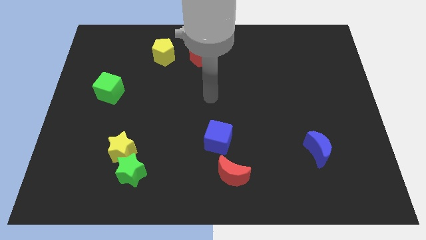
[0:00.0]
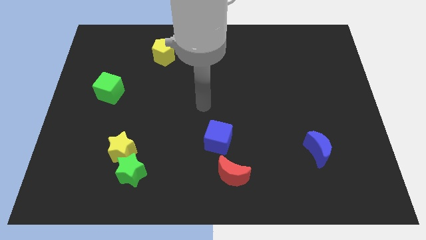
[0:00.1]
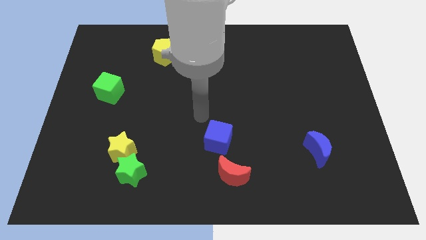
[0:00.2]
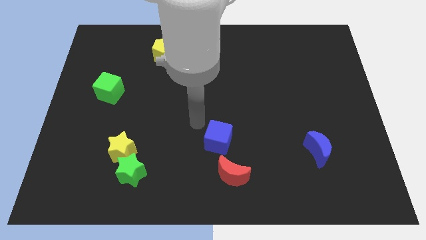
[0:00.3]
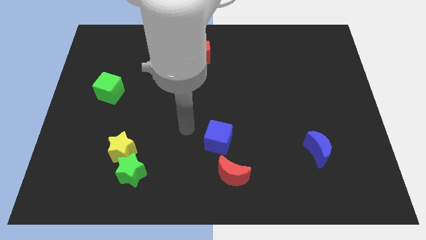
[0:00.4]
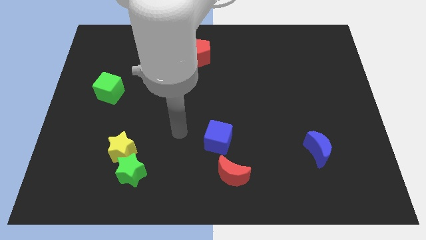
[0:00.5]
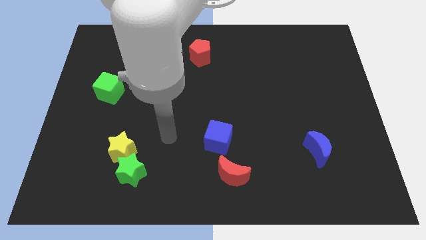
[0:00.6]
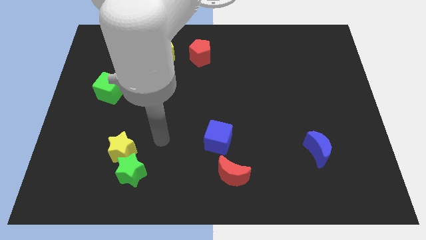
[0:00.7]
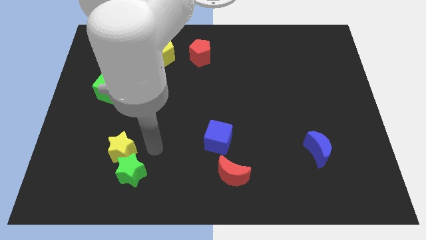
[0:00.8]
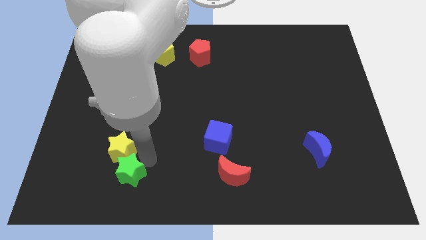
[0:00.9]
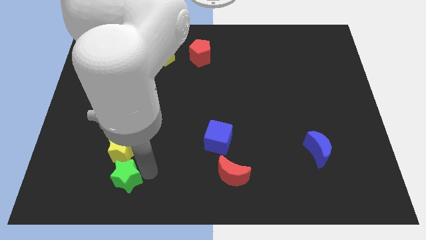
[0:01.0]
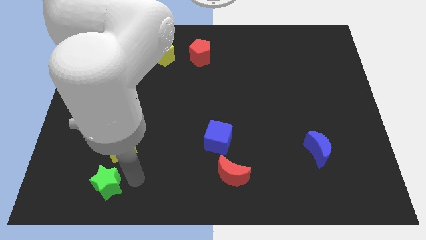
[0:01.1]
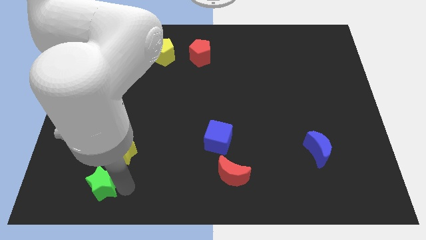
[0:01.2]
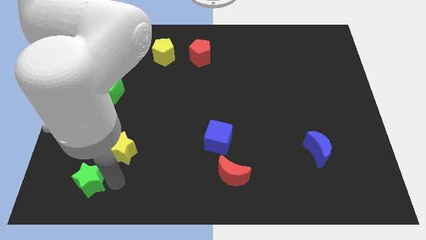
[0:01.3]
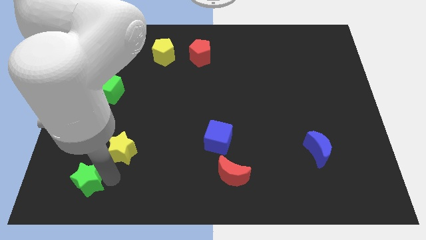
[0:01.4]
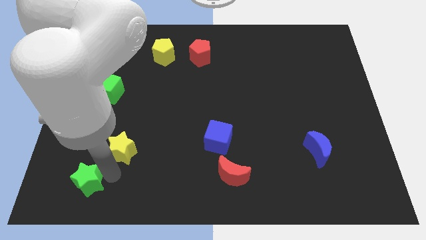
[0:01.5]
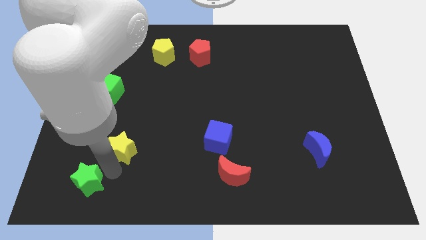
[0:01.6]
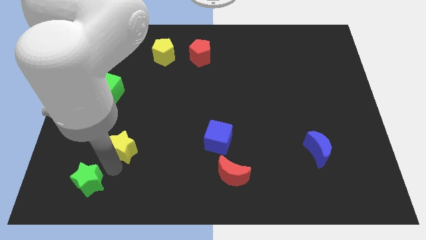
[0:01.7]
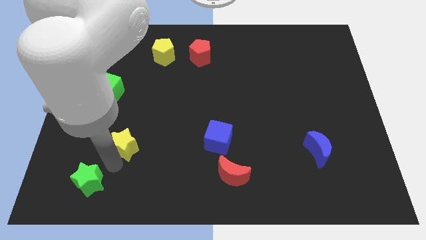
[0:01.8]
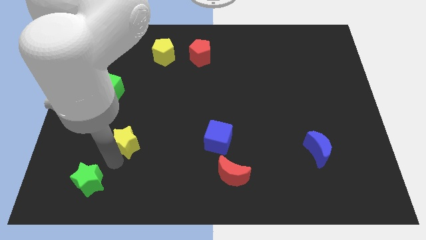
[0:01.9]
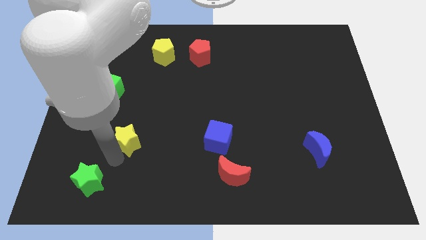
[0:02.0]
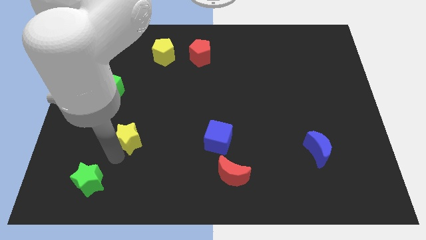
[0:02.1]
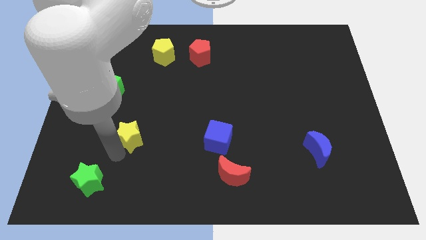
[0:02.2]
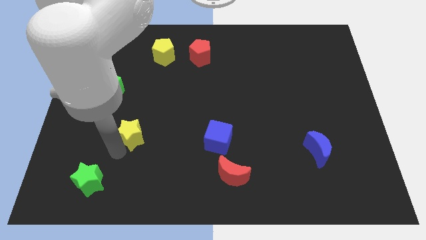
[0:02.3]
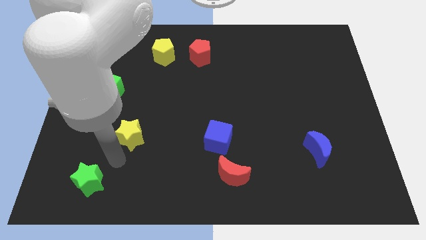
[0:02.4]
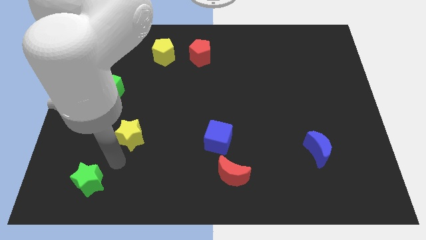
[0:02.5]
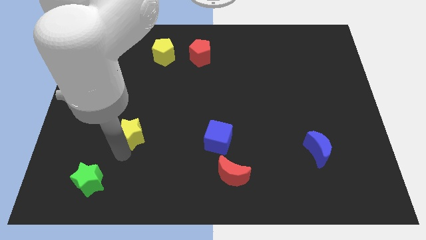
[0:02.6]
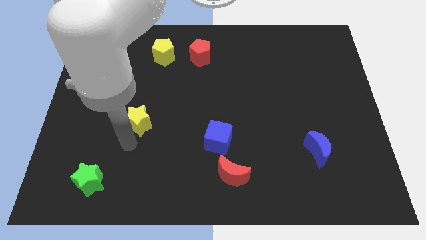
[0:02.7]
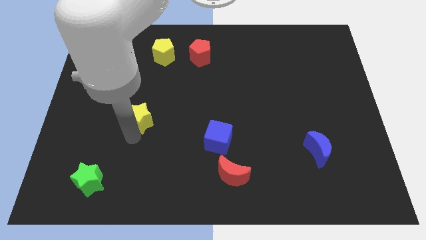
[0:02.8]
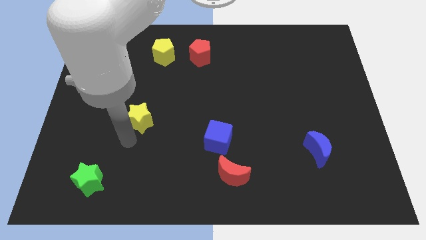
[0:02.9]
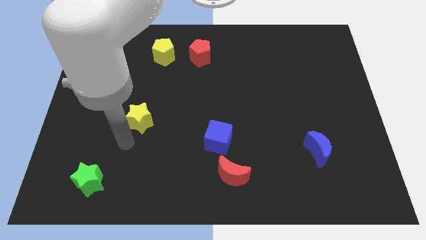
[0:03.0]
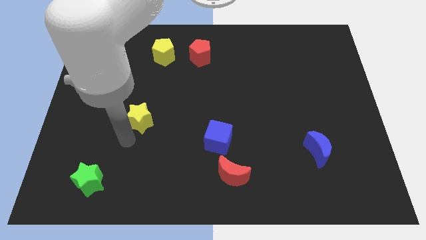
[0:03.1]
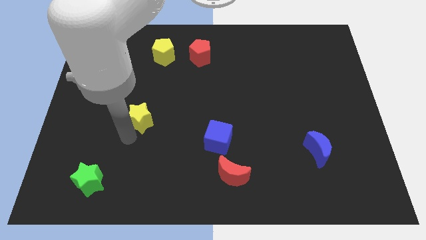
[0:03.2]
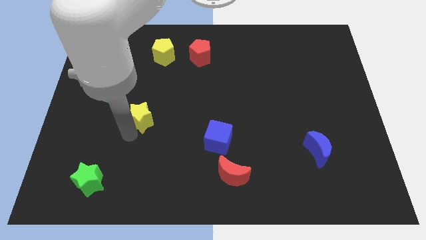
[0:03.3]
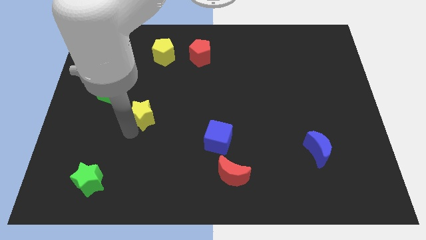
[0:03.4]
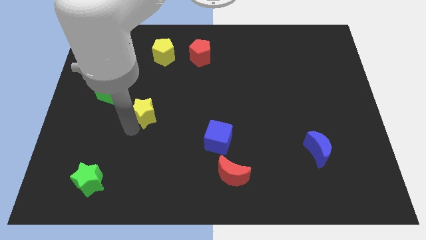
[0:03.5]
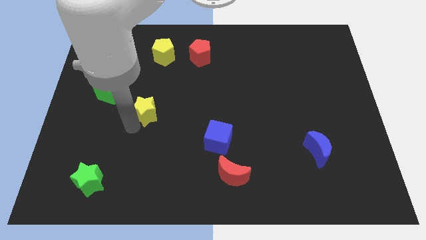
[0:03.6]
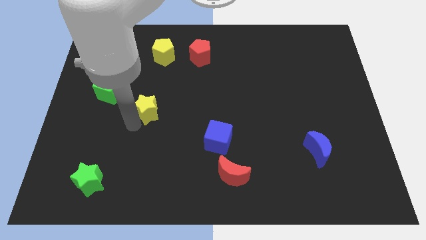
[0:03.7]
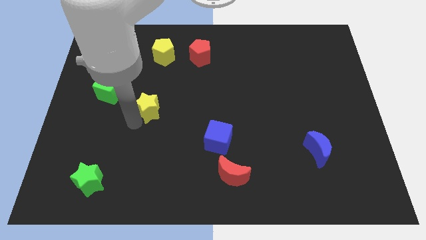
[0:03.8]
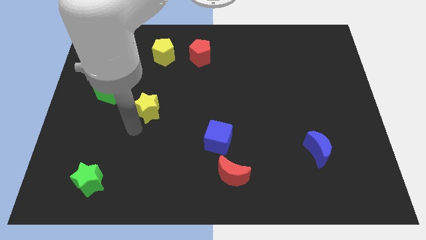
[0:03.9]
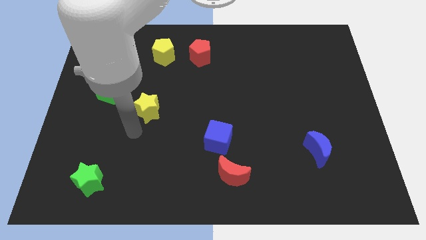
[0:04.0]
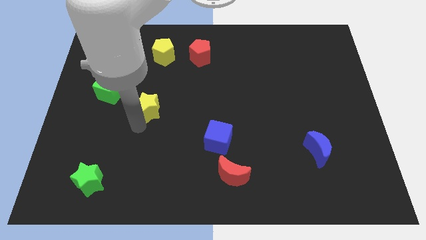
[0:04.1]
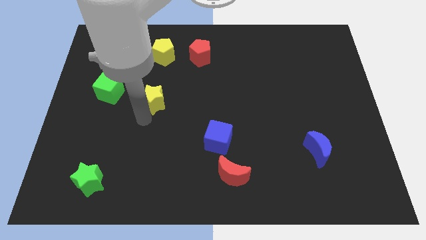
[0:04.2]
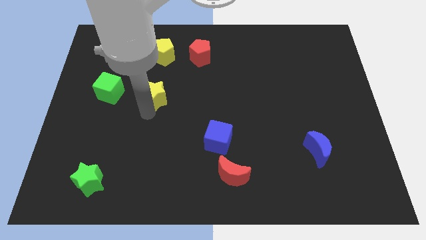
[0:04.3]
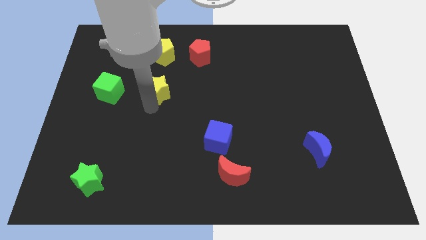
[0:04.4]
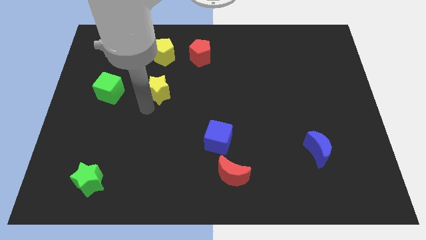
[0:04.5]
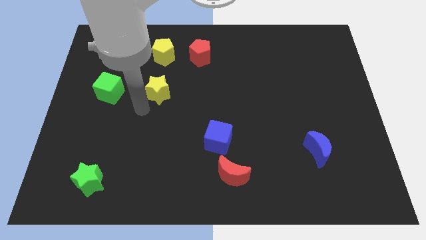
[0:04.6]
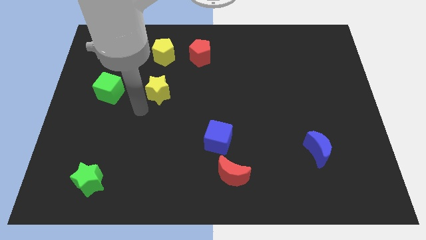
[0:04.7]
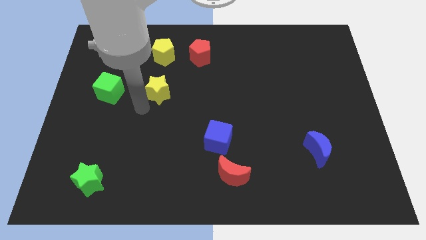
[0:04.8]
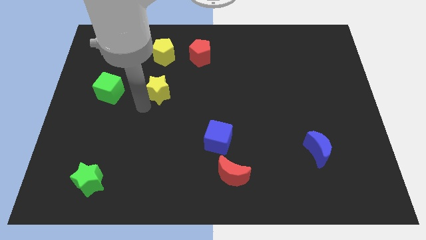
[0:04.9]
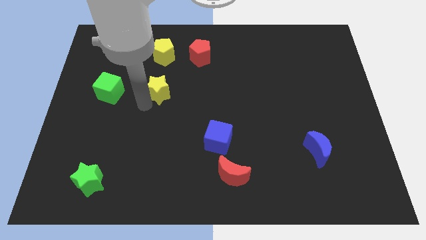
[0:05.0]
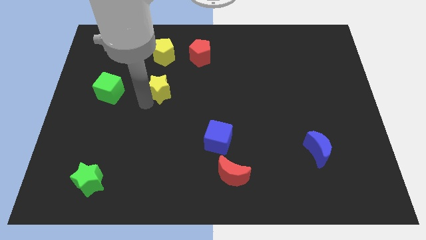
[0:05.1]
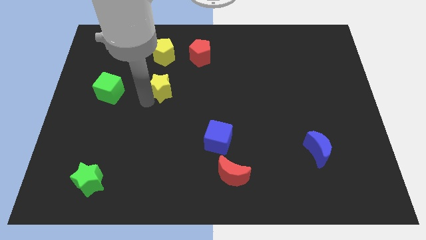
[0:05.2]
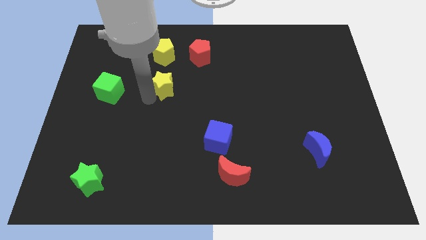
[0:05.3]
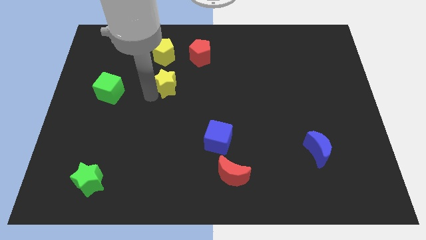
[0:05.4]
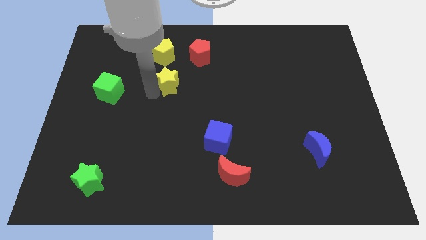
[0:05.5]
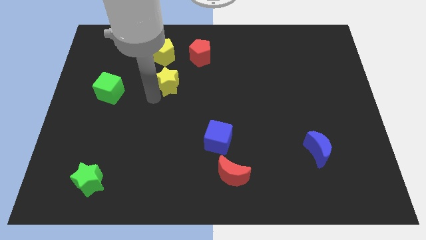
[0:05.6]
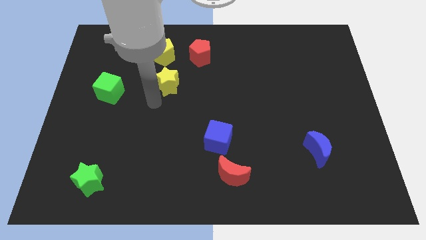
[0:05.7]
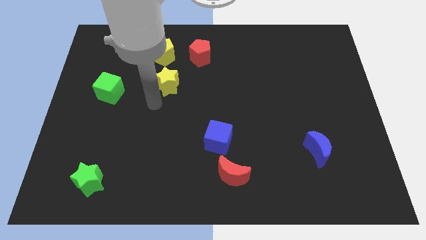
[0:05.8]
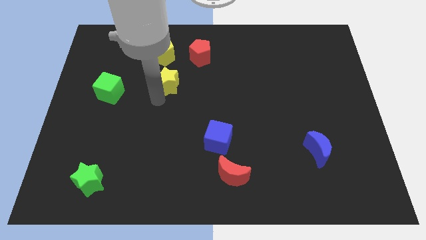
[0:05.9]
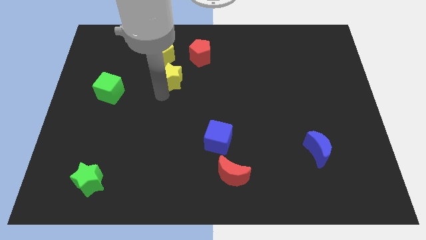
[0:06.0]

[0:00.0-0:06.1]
slide the yellow star diagonally down and to the right of the yellow pentagon

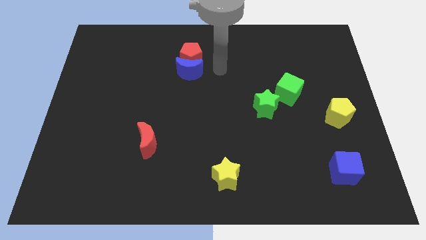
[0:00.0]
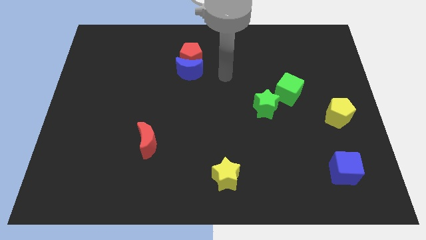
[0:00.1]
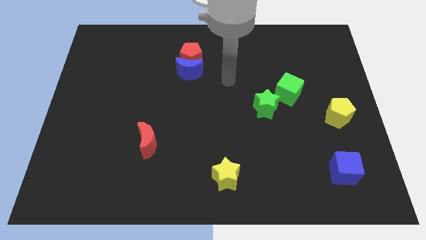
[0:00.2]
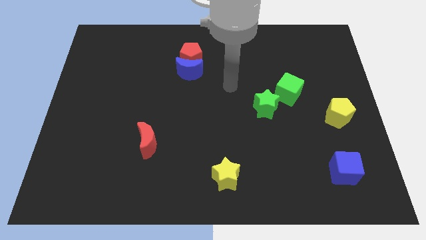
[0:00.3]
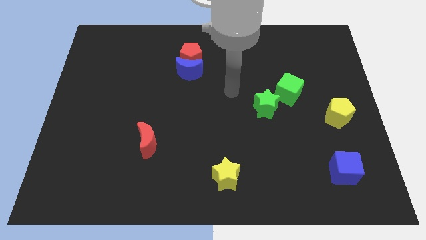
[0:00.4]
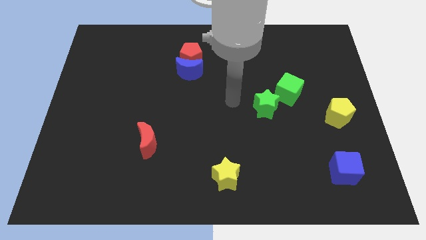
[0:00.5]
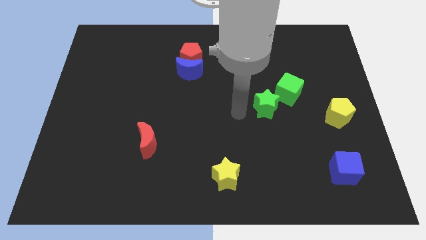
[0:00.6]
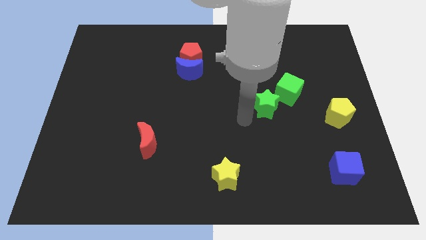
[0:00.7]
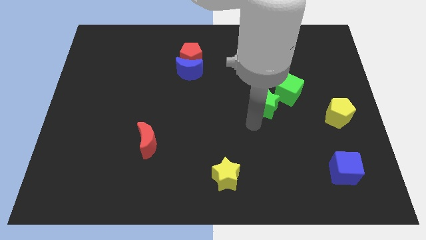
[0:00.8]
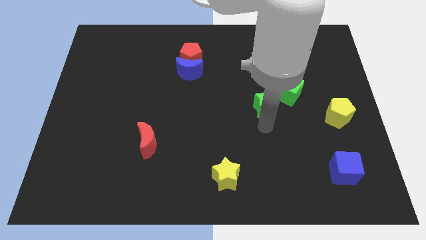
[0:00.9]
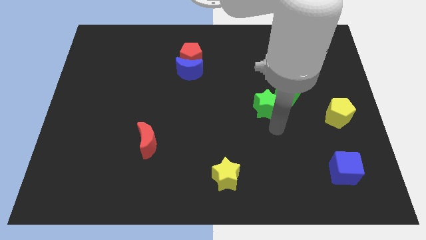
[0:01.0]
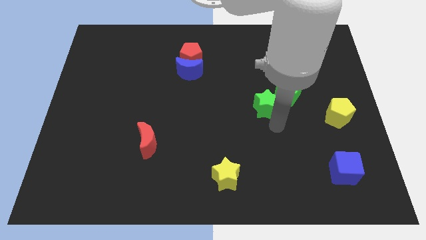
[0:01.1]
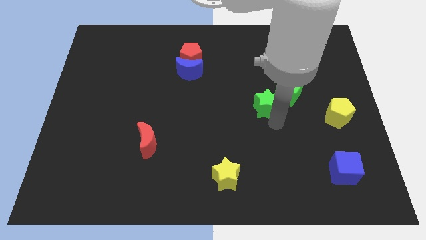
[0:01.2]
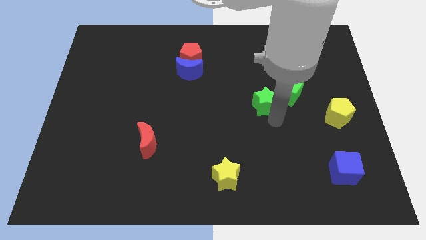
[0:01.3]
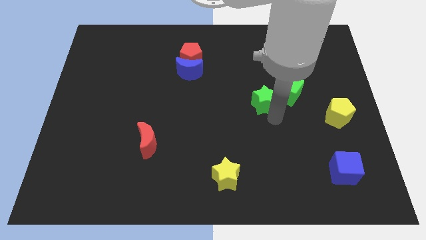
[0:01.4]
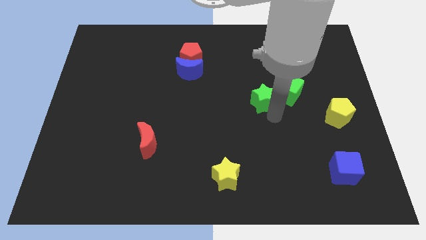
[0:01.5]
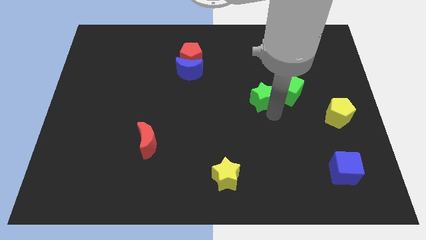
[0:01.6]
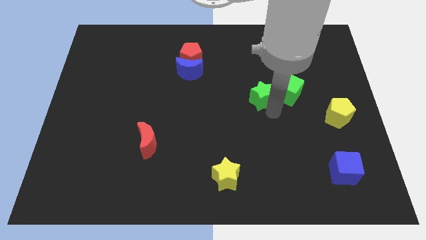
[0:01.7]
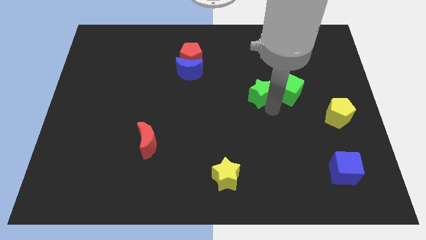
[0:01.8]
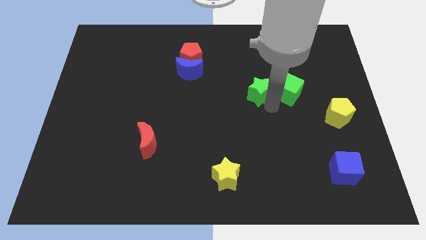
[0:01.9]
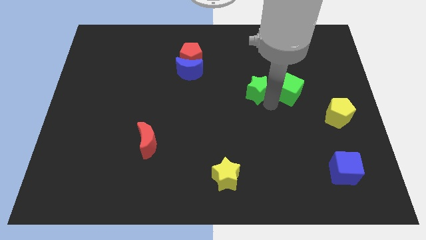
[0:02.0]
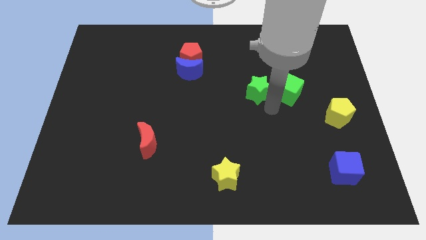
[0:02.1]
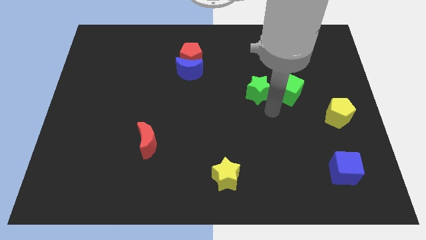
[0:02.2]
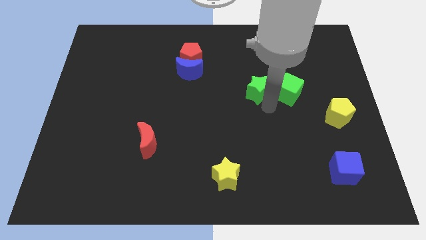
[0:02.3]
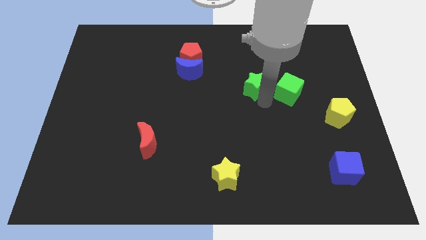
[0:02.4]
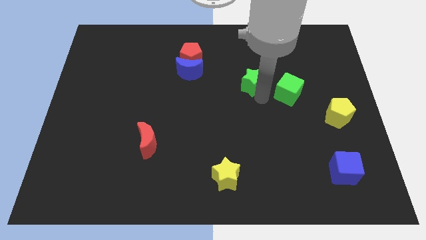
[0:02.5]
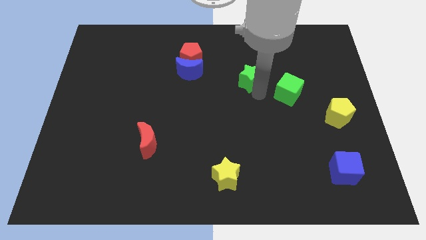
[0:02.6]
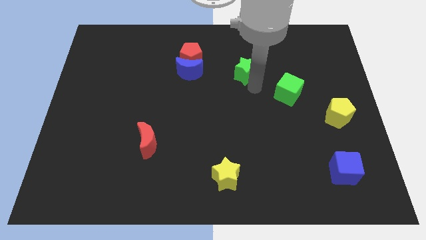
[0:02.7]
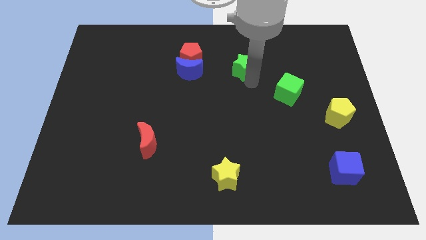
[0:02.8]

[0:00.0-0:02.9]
move the green star just right of the red pentagon
